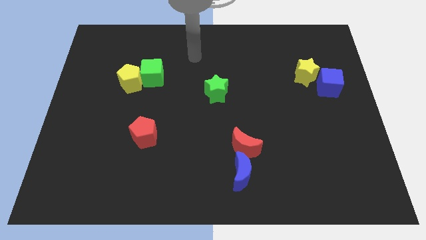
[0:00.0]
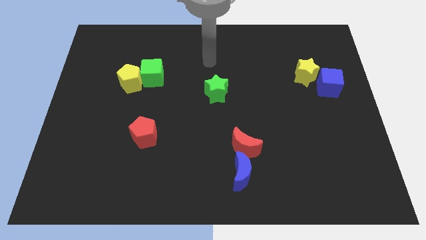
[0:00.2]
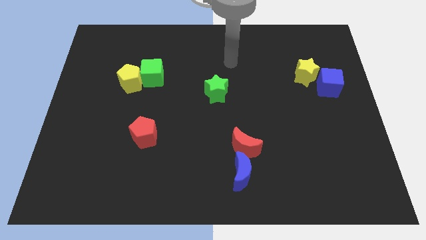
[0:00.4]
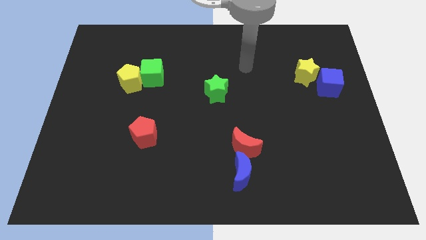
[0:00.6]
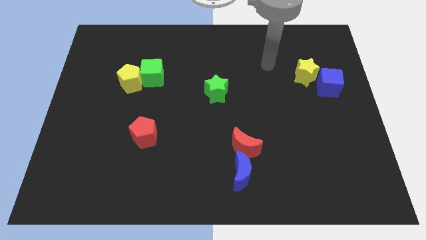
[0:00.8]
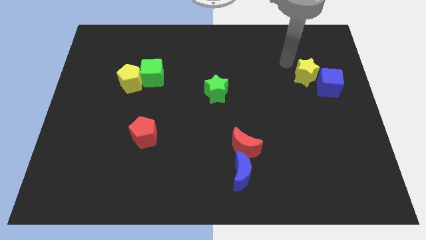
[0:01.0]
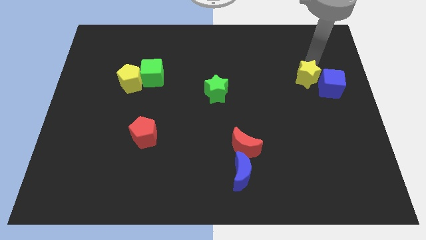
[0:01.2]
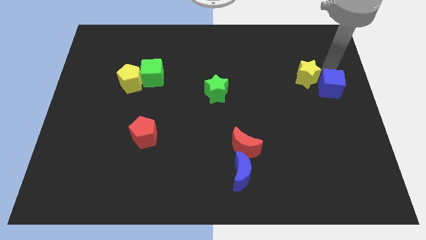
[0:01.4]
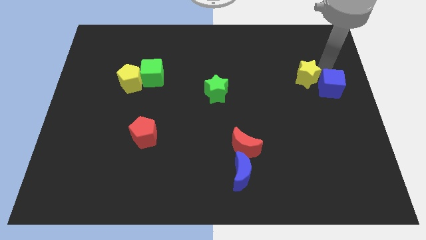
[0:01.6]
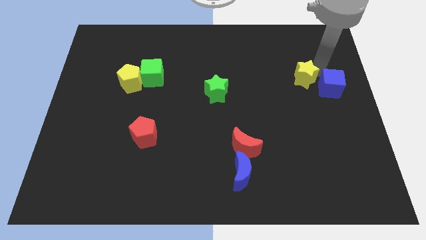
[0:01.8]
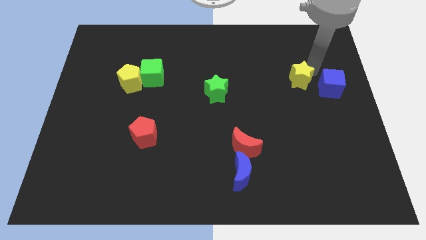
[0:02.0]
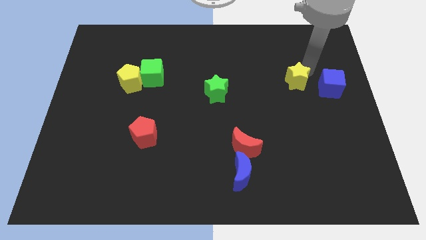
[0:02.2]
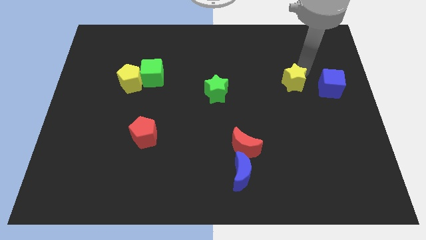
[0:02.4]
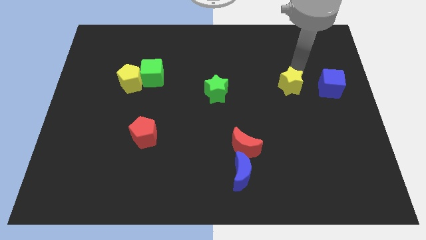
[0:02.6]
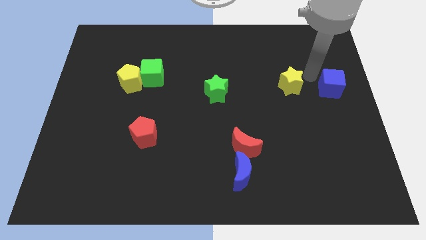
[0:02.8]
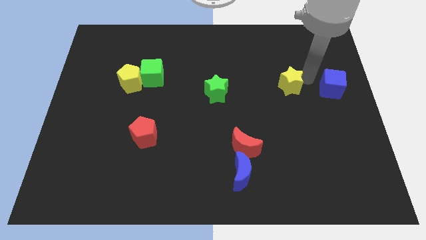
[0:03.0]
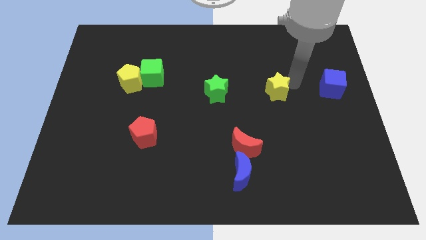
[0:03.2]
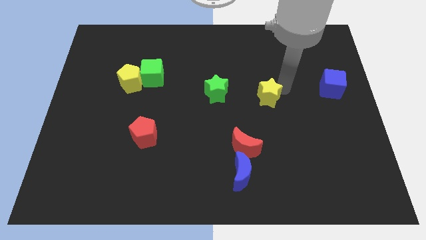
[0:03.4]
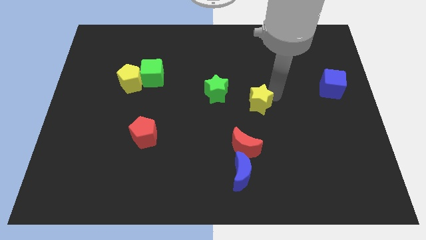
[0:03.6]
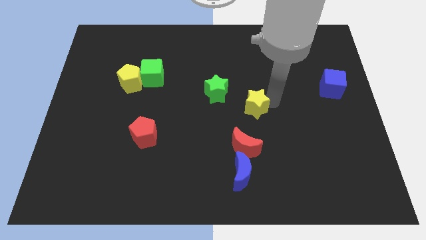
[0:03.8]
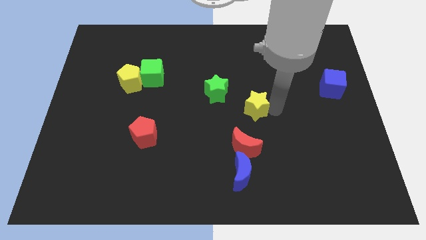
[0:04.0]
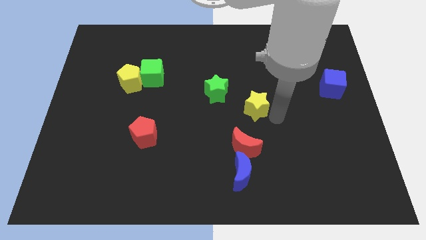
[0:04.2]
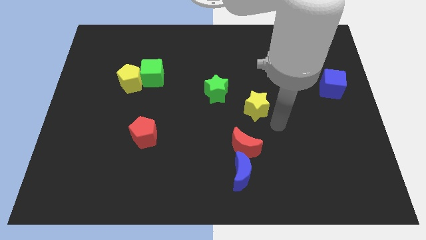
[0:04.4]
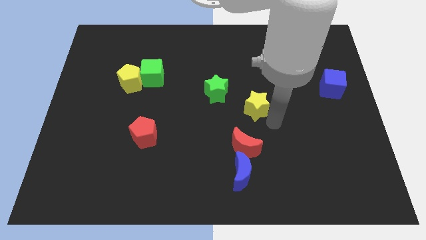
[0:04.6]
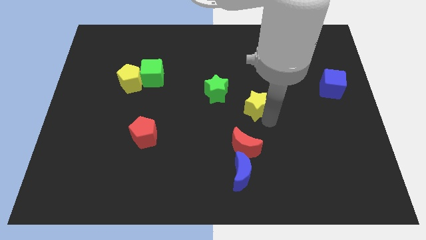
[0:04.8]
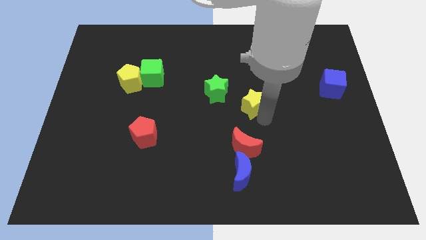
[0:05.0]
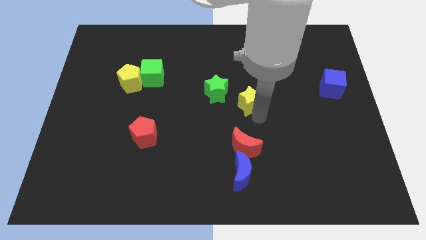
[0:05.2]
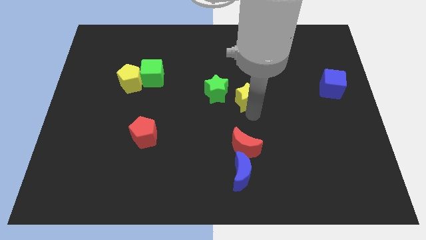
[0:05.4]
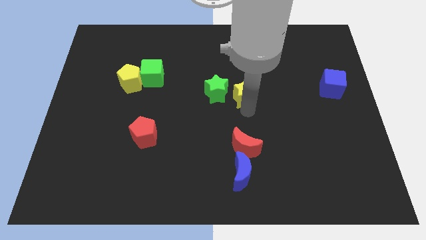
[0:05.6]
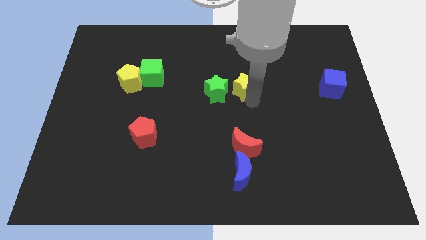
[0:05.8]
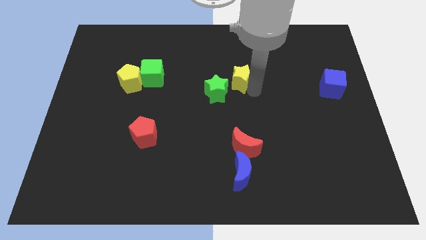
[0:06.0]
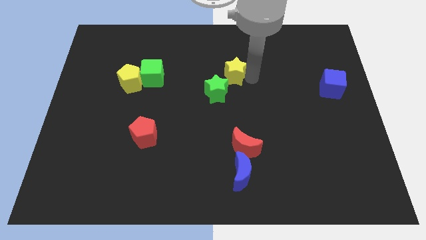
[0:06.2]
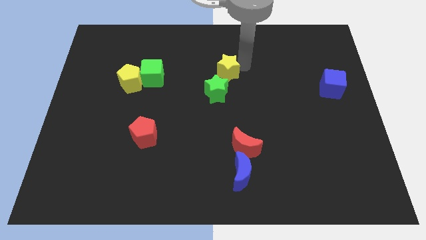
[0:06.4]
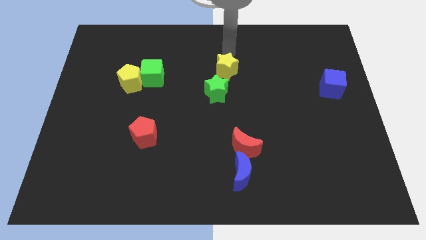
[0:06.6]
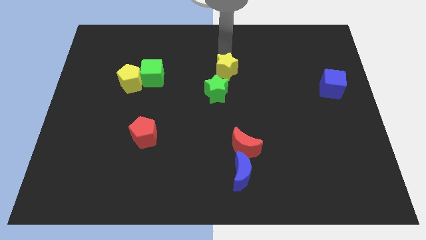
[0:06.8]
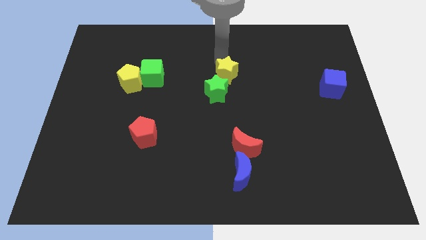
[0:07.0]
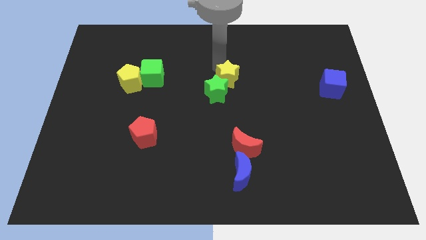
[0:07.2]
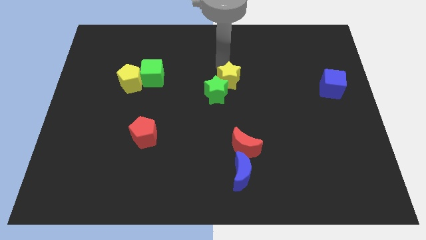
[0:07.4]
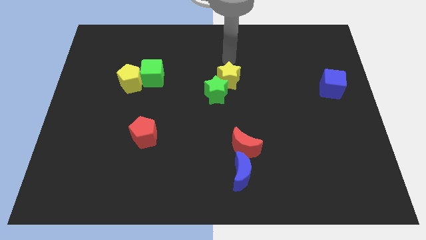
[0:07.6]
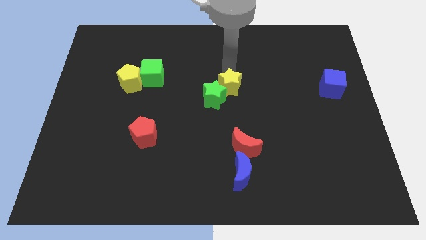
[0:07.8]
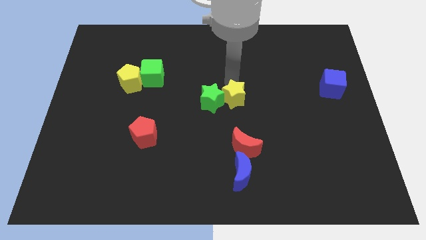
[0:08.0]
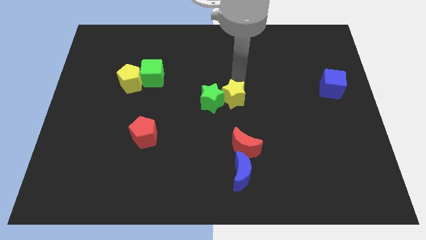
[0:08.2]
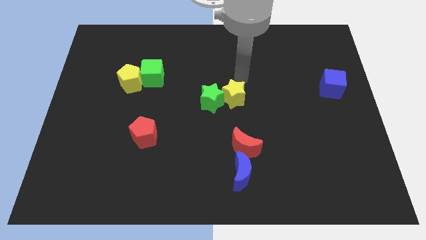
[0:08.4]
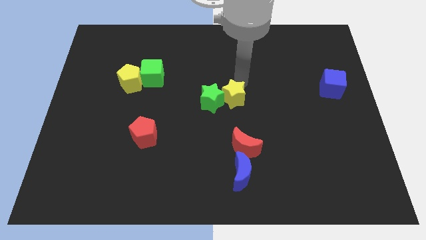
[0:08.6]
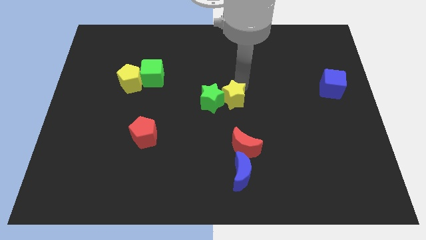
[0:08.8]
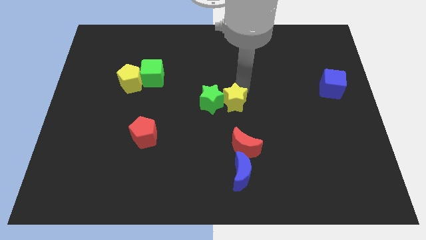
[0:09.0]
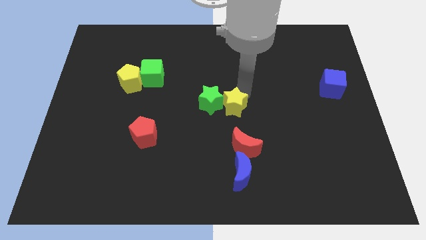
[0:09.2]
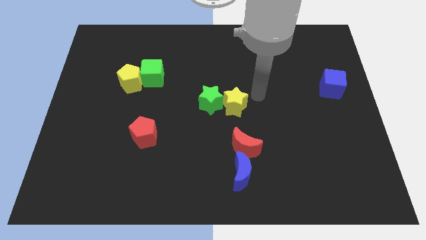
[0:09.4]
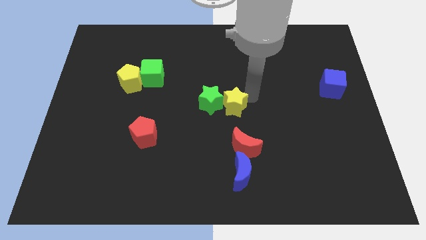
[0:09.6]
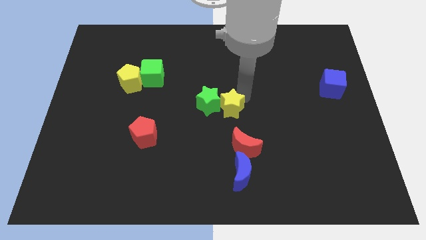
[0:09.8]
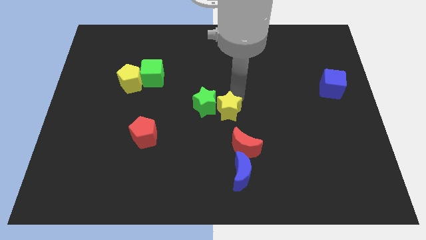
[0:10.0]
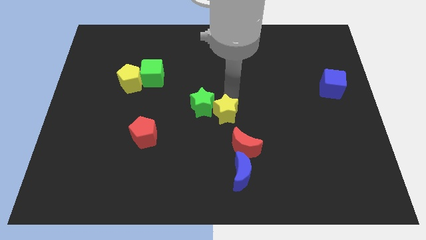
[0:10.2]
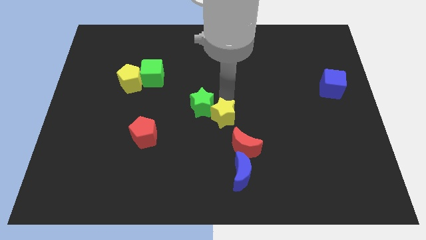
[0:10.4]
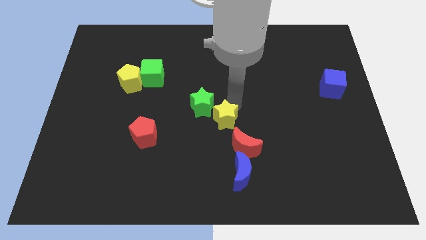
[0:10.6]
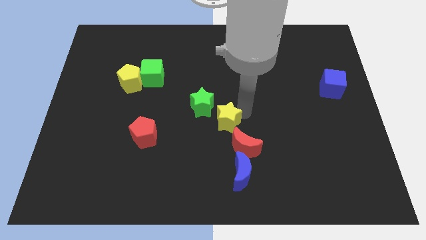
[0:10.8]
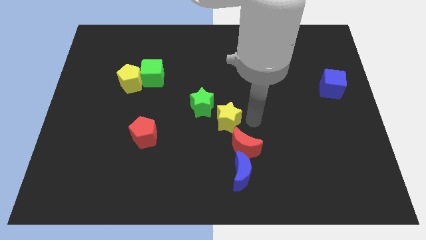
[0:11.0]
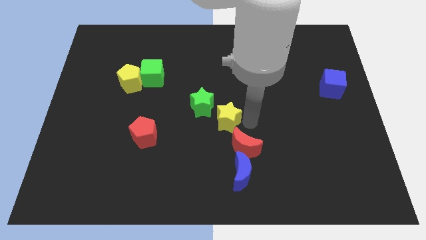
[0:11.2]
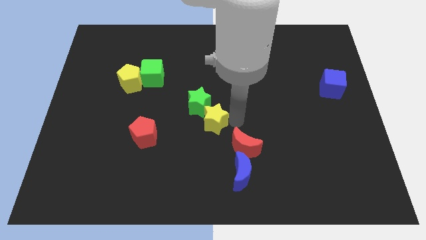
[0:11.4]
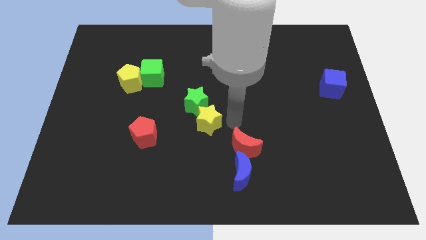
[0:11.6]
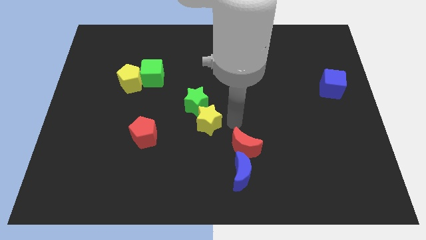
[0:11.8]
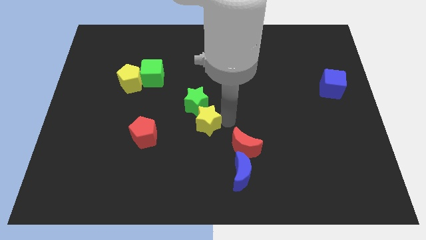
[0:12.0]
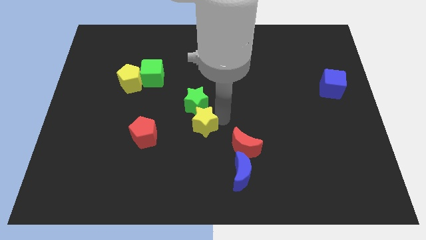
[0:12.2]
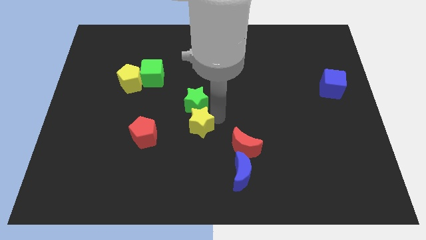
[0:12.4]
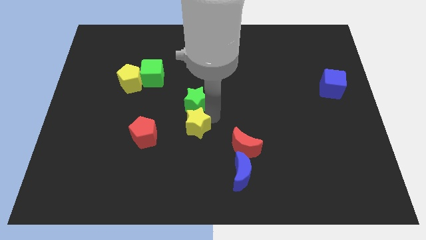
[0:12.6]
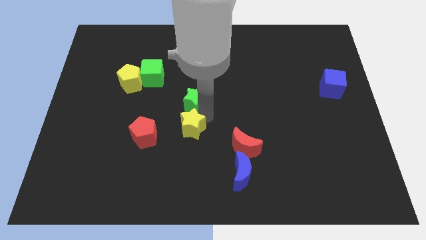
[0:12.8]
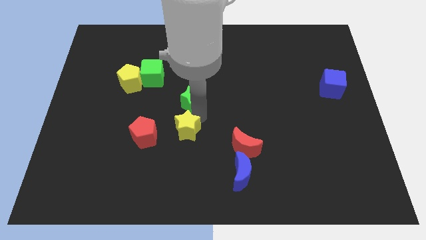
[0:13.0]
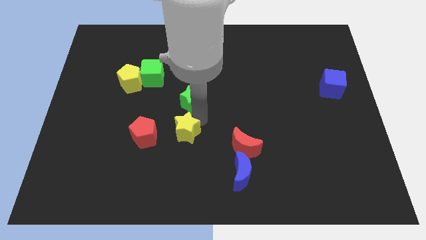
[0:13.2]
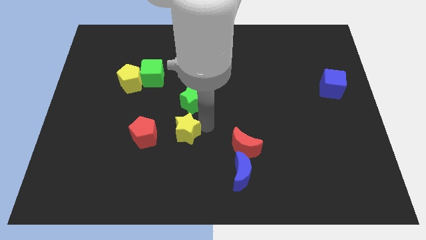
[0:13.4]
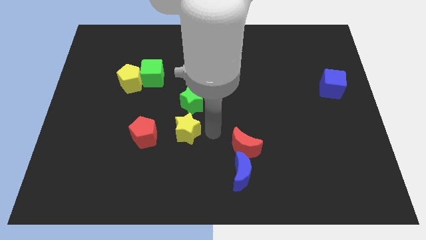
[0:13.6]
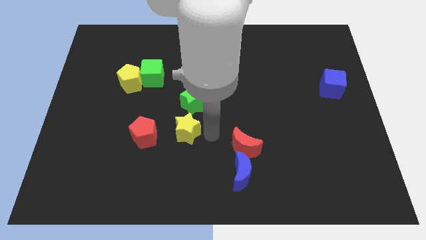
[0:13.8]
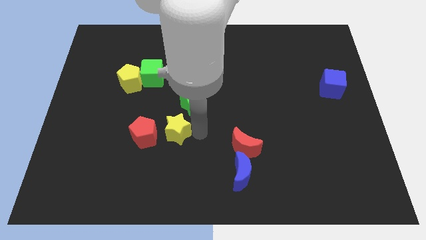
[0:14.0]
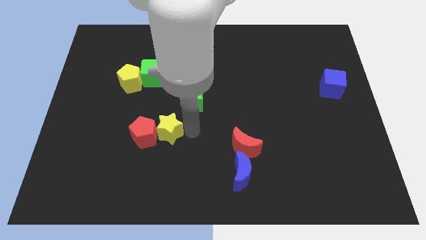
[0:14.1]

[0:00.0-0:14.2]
move the yellow star close to the red pentagon
